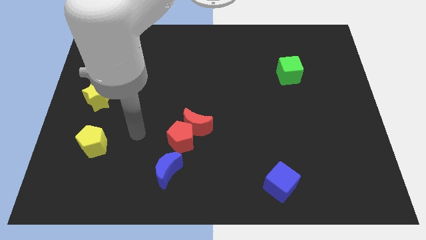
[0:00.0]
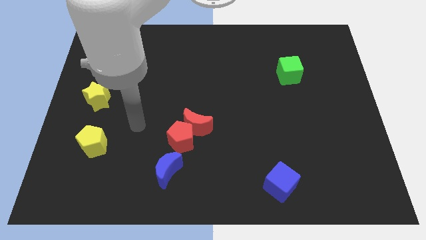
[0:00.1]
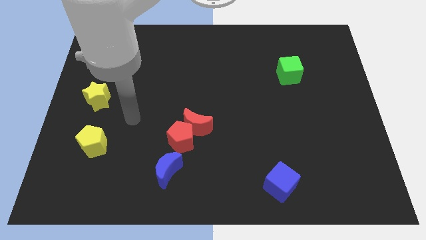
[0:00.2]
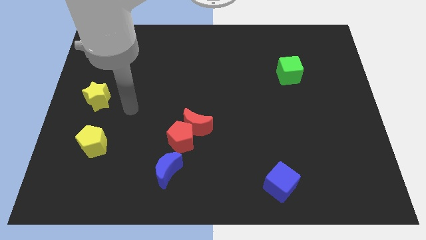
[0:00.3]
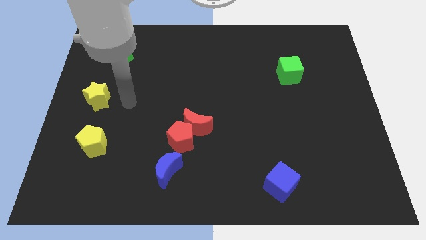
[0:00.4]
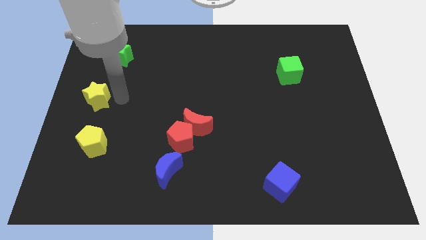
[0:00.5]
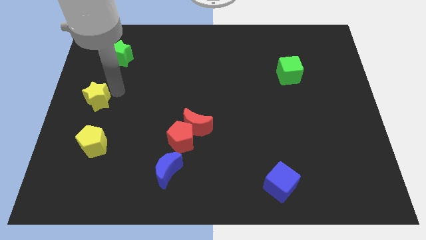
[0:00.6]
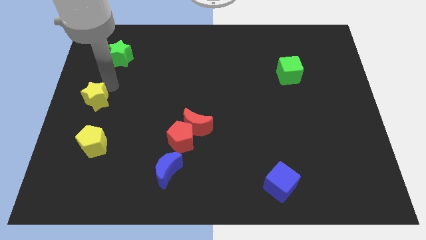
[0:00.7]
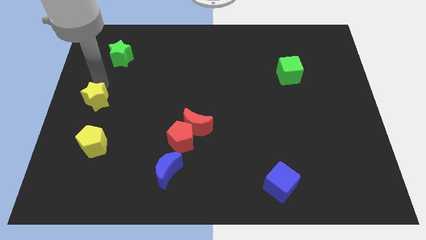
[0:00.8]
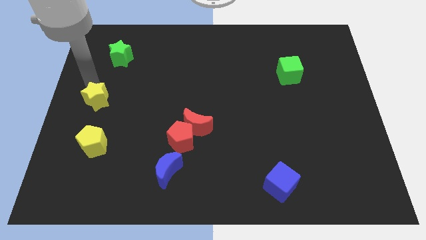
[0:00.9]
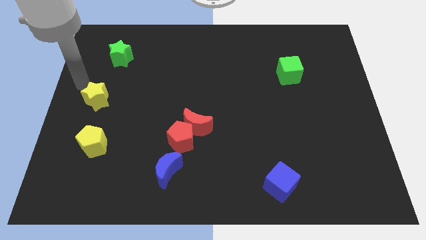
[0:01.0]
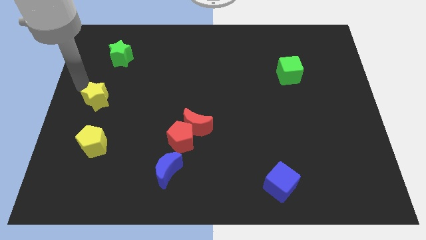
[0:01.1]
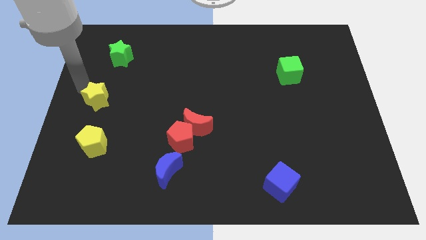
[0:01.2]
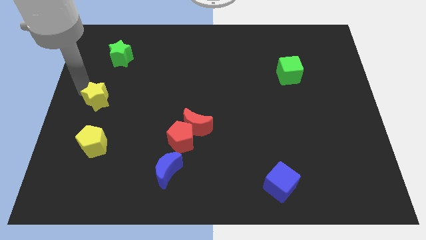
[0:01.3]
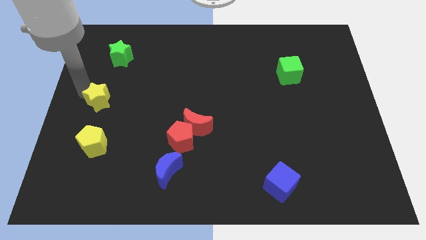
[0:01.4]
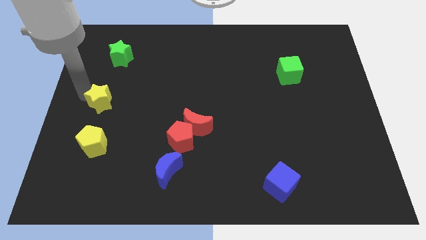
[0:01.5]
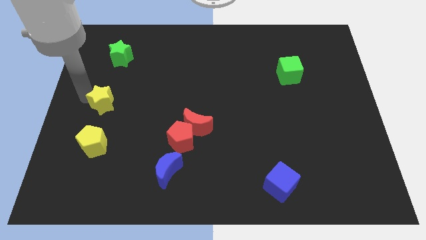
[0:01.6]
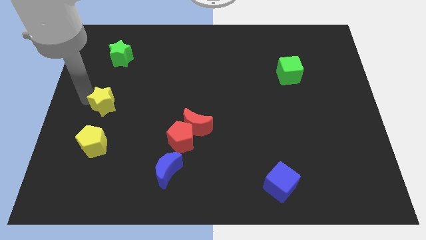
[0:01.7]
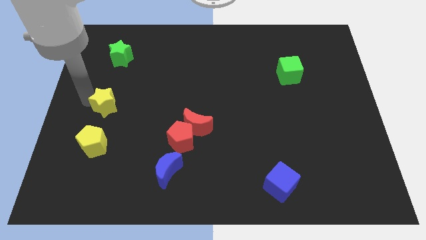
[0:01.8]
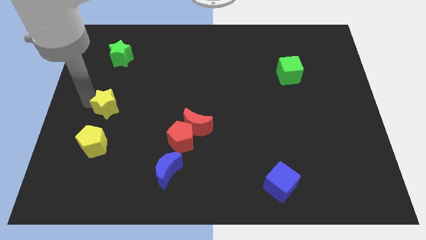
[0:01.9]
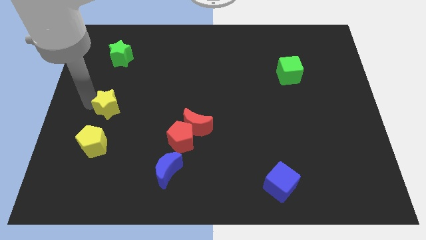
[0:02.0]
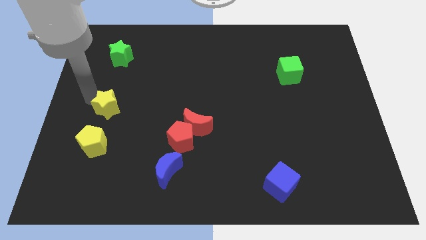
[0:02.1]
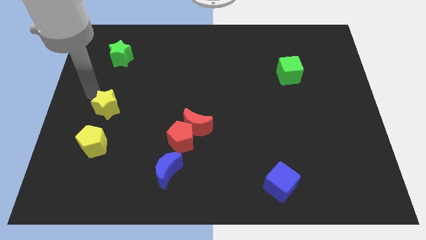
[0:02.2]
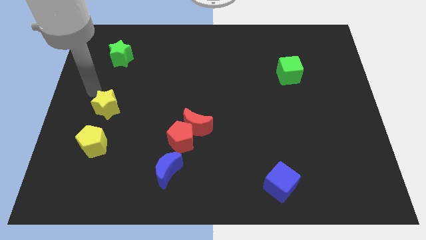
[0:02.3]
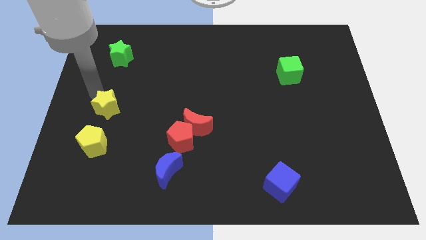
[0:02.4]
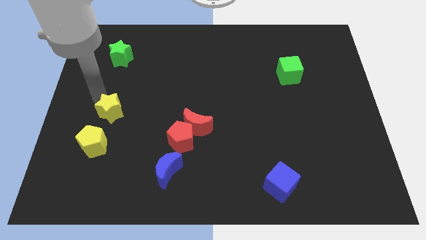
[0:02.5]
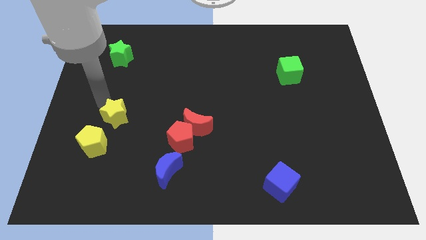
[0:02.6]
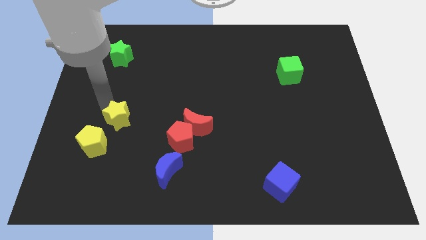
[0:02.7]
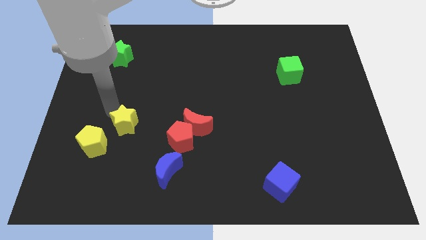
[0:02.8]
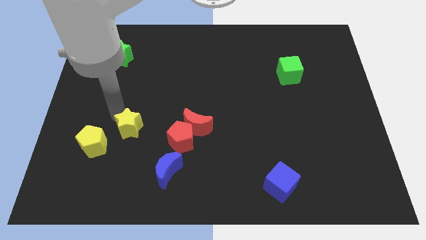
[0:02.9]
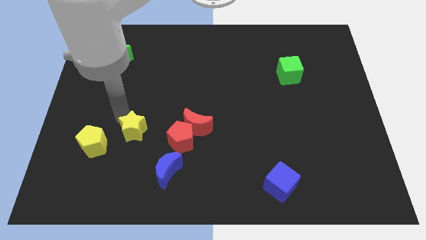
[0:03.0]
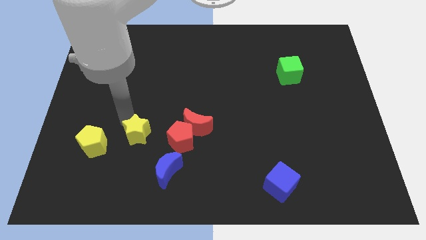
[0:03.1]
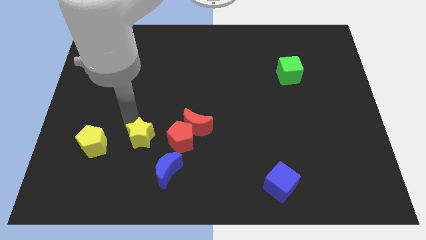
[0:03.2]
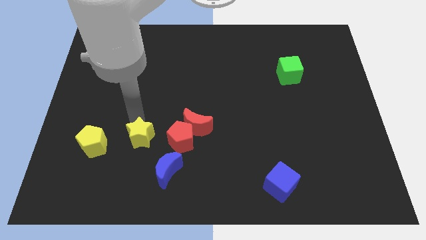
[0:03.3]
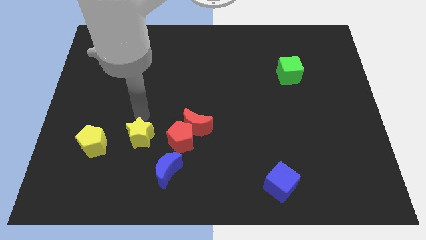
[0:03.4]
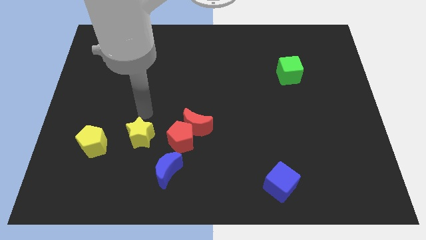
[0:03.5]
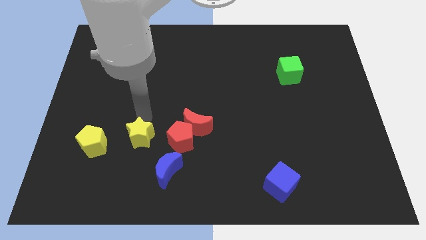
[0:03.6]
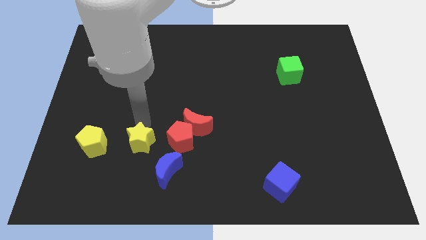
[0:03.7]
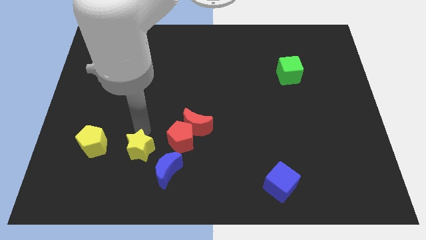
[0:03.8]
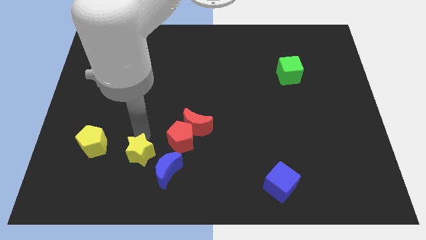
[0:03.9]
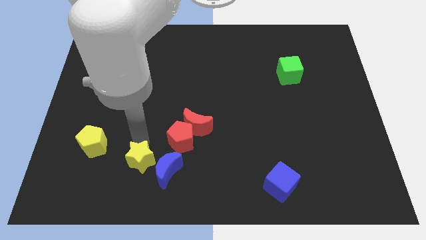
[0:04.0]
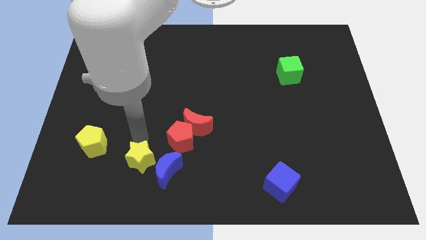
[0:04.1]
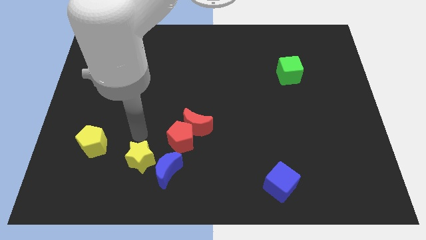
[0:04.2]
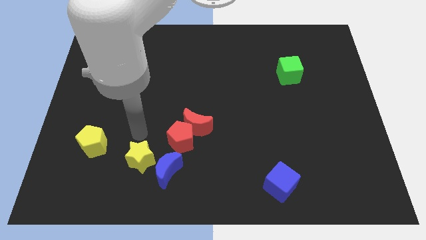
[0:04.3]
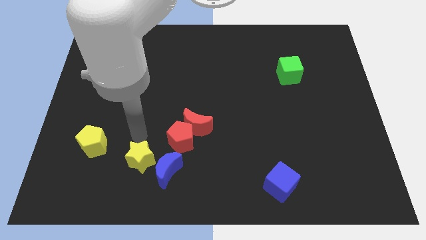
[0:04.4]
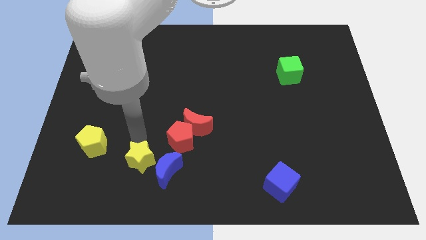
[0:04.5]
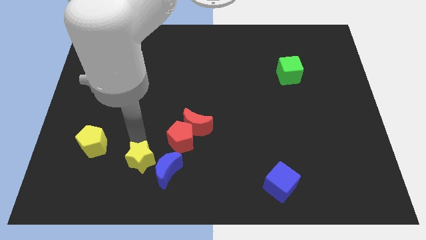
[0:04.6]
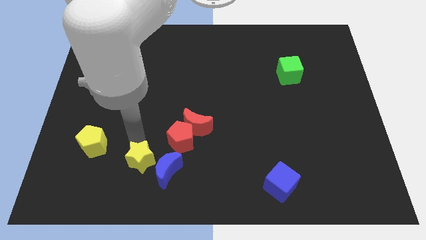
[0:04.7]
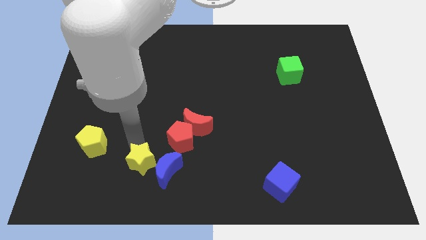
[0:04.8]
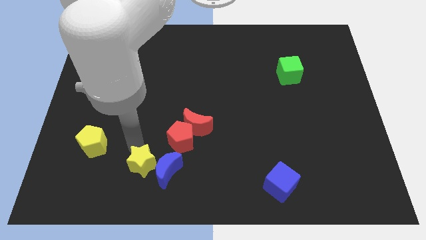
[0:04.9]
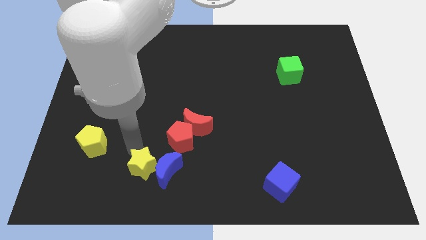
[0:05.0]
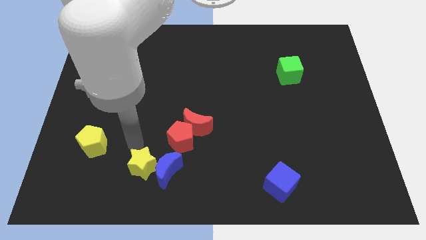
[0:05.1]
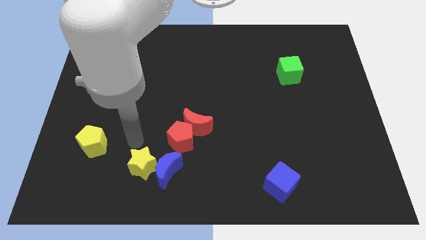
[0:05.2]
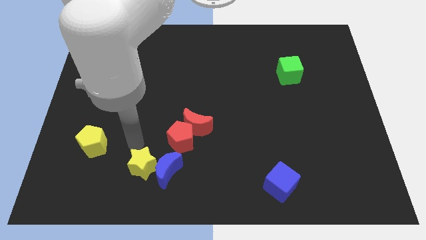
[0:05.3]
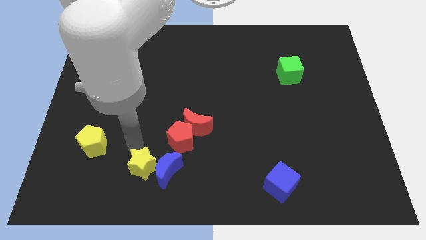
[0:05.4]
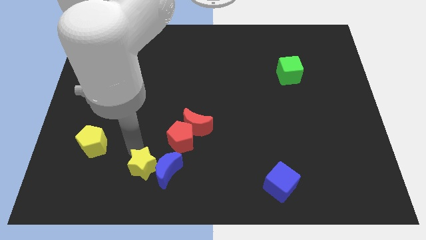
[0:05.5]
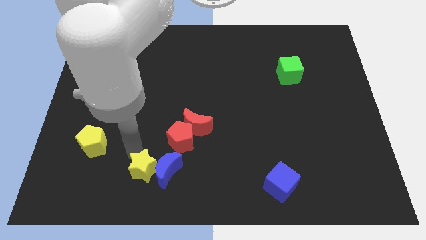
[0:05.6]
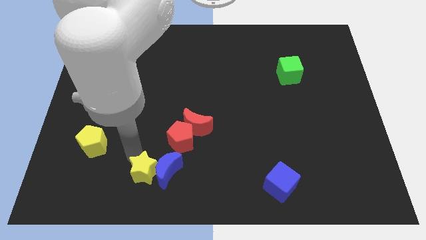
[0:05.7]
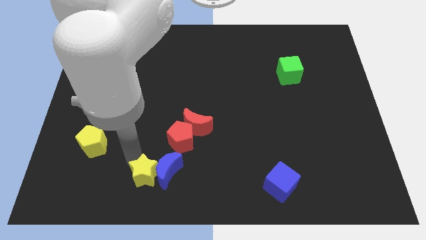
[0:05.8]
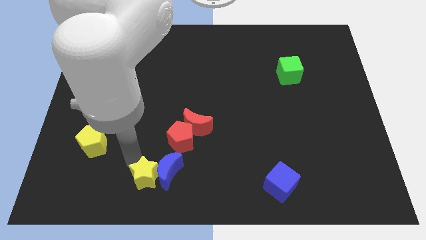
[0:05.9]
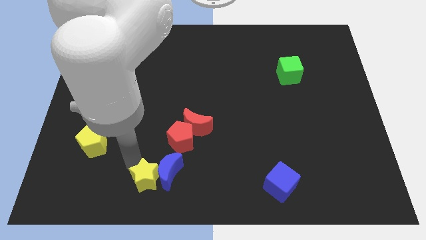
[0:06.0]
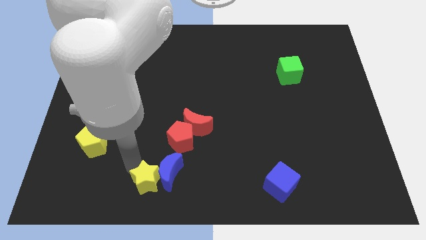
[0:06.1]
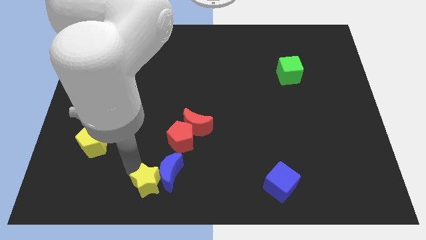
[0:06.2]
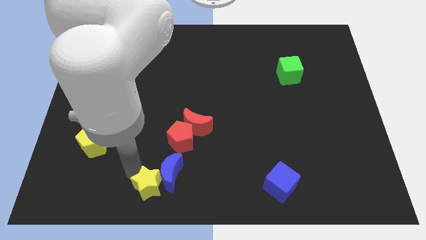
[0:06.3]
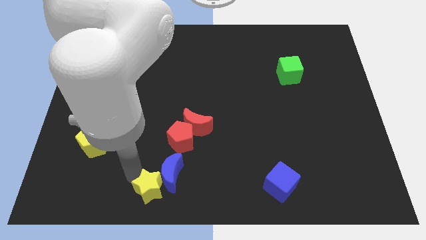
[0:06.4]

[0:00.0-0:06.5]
put the yellow star to the bottom

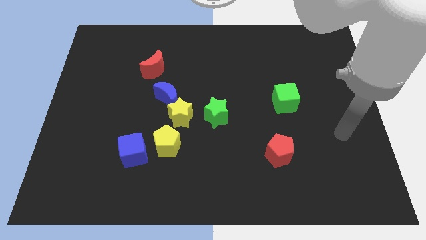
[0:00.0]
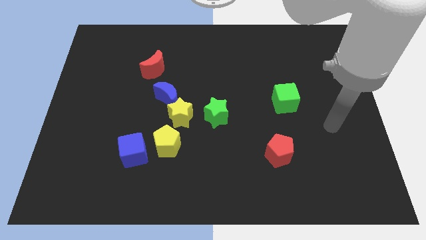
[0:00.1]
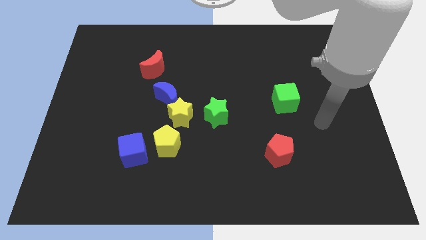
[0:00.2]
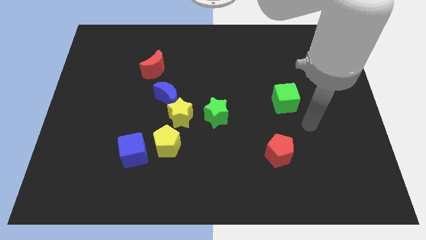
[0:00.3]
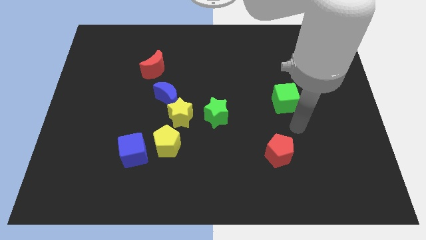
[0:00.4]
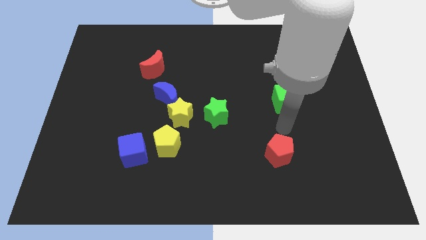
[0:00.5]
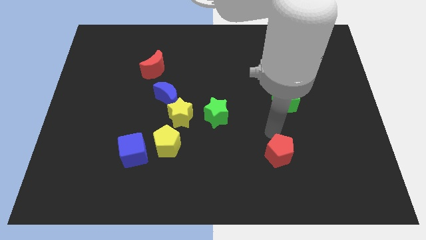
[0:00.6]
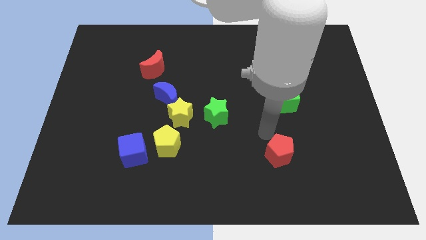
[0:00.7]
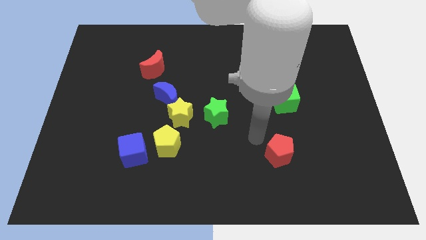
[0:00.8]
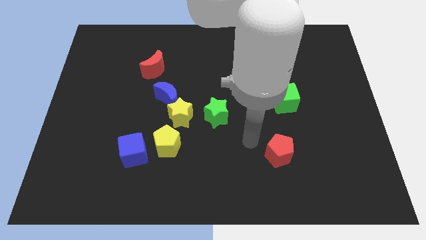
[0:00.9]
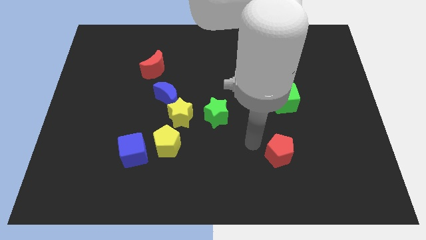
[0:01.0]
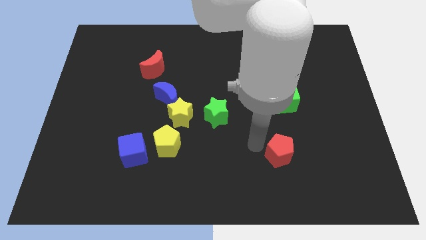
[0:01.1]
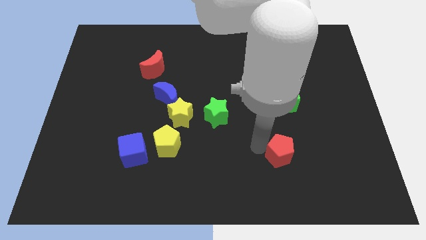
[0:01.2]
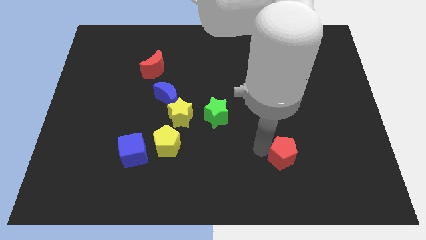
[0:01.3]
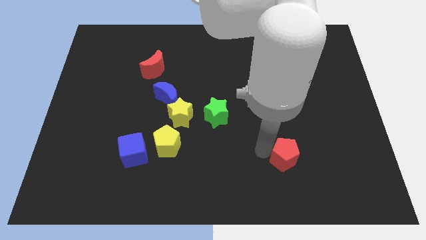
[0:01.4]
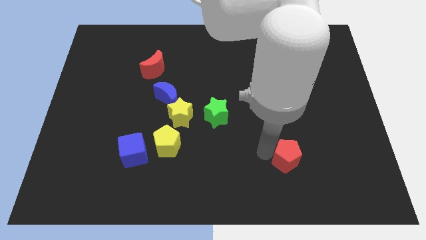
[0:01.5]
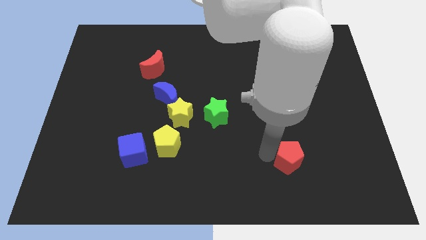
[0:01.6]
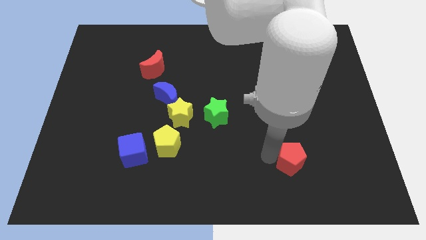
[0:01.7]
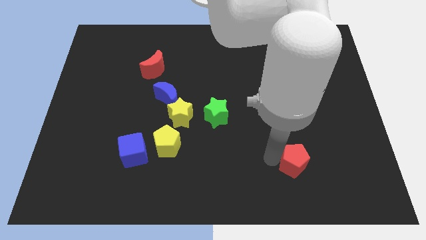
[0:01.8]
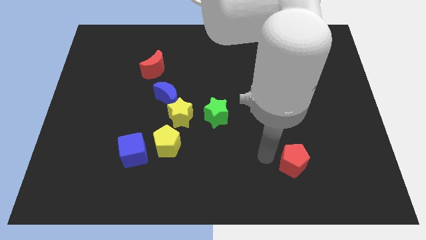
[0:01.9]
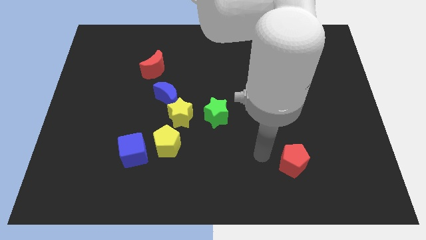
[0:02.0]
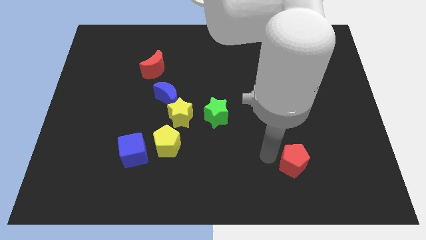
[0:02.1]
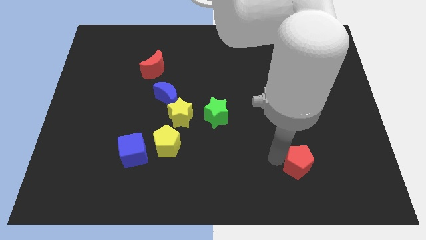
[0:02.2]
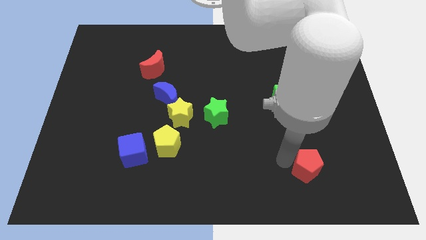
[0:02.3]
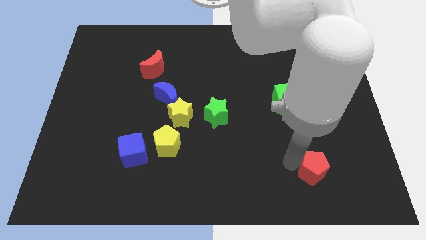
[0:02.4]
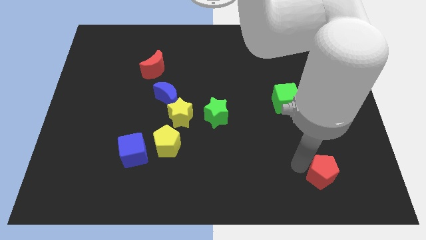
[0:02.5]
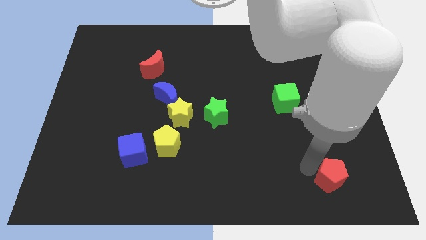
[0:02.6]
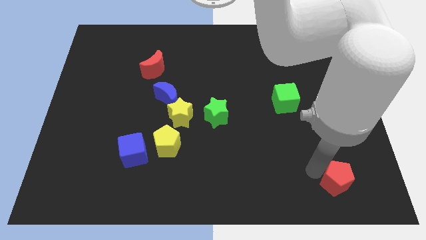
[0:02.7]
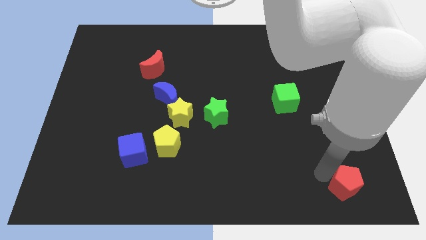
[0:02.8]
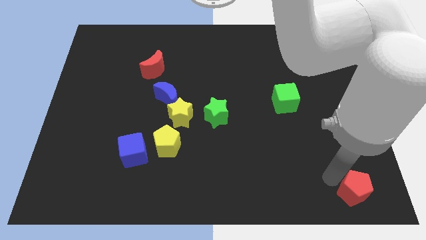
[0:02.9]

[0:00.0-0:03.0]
slide the red pentagon to the lower right corner
